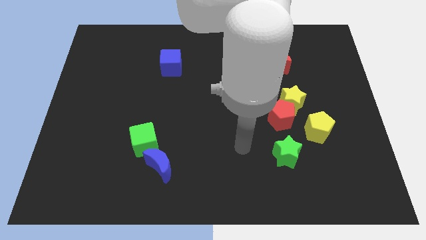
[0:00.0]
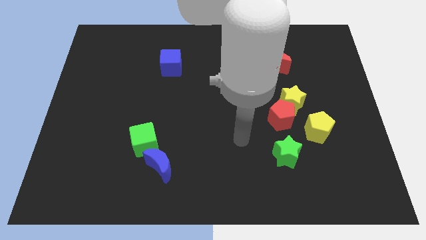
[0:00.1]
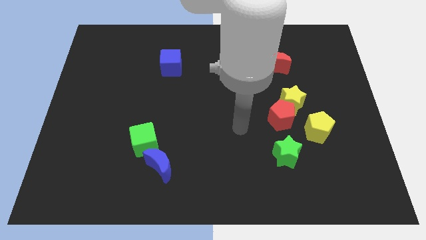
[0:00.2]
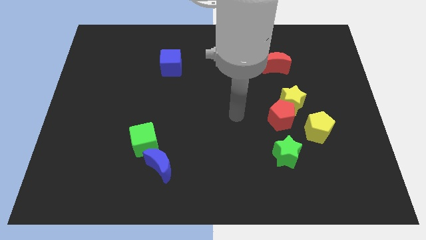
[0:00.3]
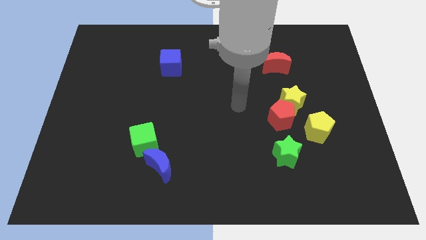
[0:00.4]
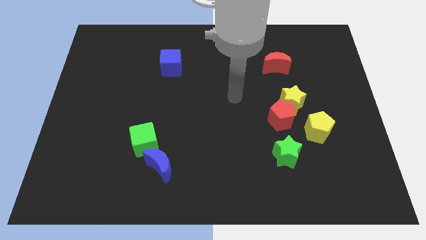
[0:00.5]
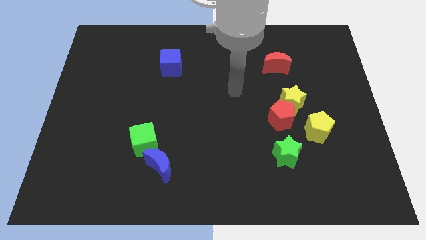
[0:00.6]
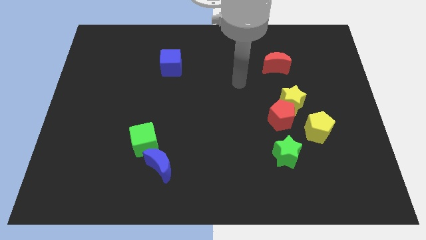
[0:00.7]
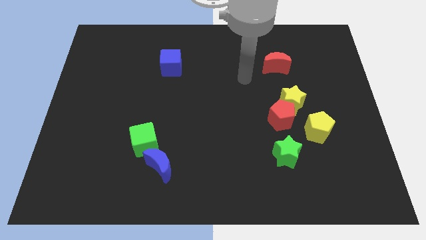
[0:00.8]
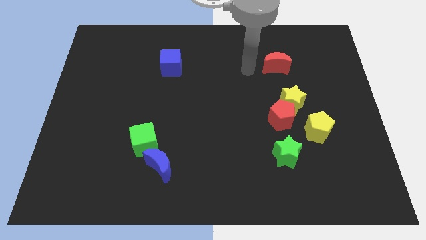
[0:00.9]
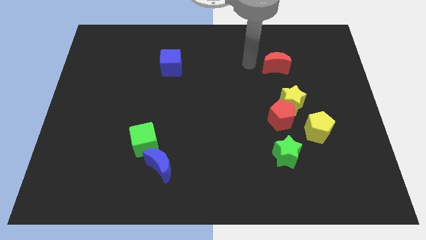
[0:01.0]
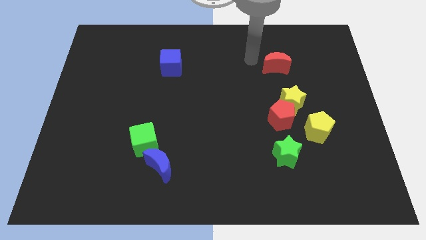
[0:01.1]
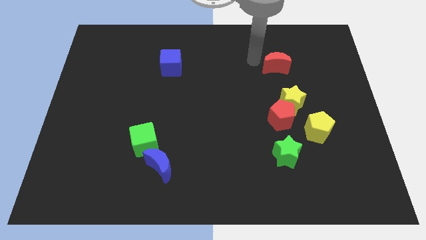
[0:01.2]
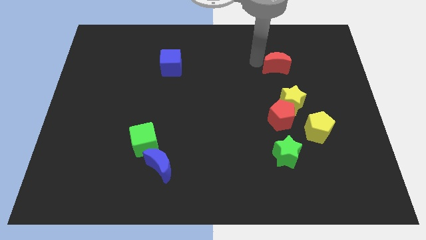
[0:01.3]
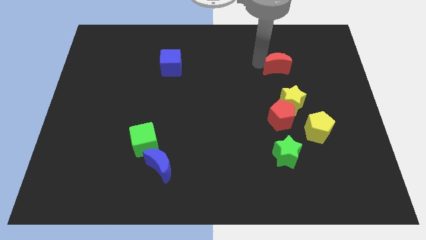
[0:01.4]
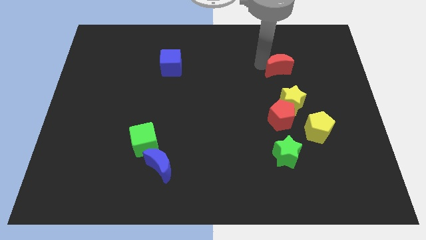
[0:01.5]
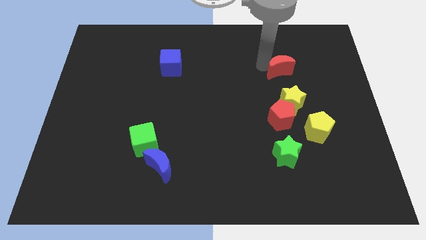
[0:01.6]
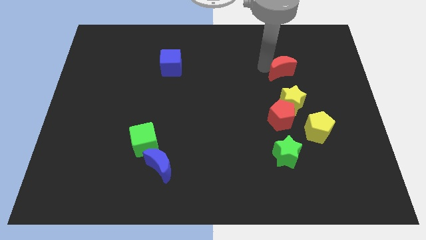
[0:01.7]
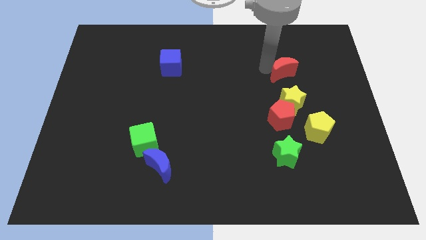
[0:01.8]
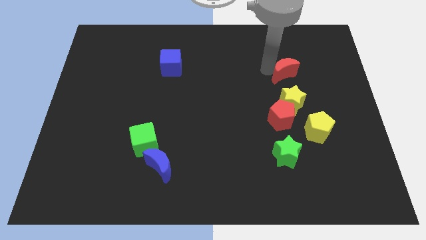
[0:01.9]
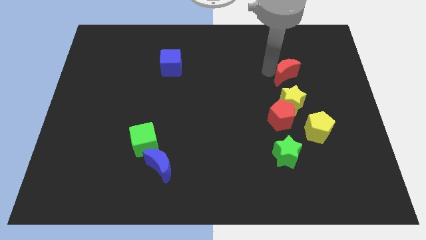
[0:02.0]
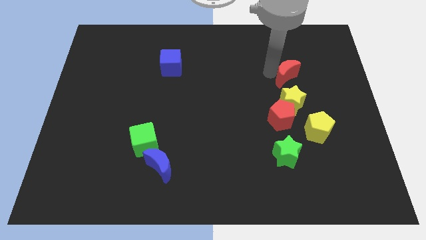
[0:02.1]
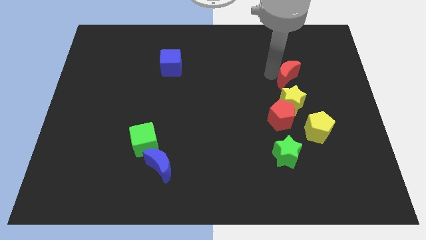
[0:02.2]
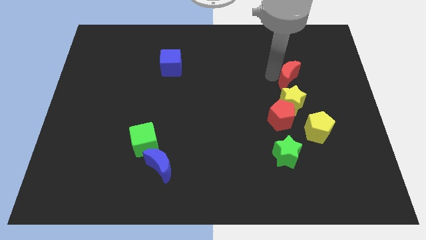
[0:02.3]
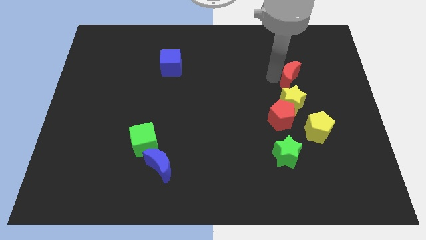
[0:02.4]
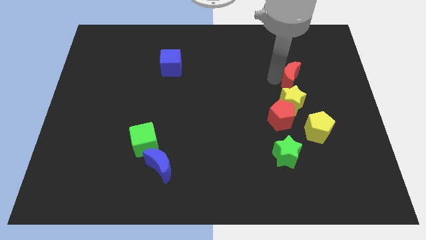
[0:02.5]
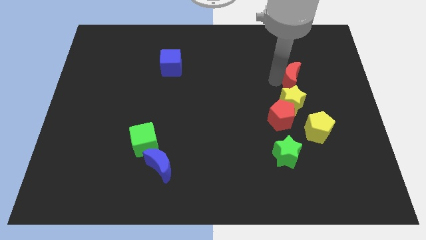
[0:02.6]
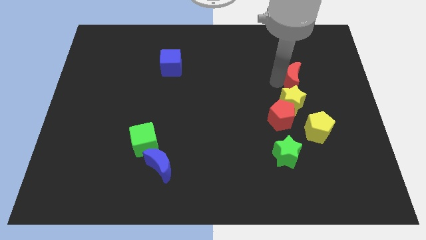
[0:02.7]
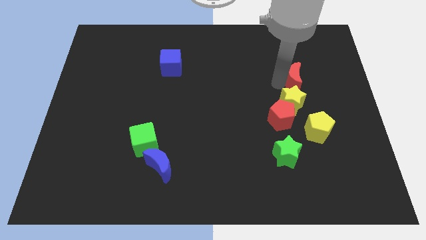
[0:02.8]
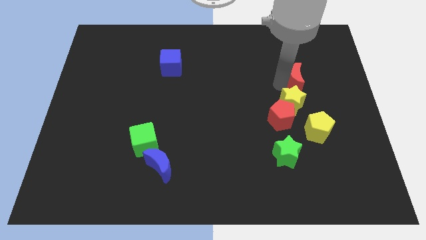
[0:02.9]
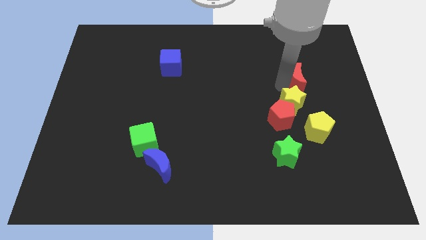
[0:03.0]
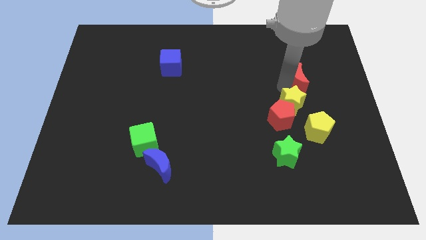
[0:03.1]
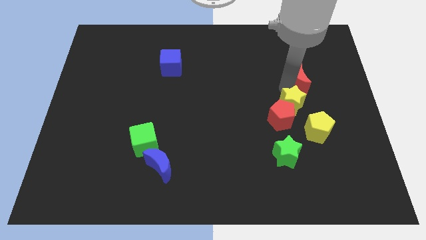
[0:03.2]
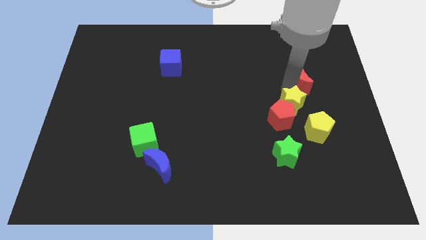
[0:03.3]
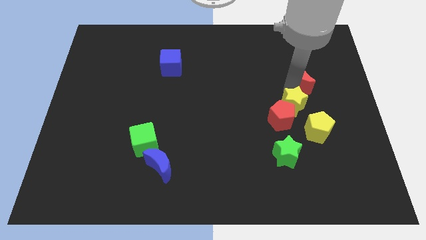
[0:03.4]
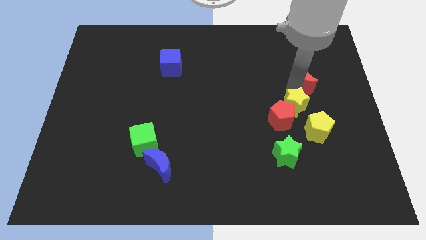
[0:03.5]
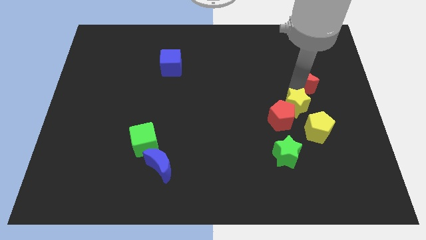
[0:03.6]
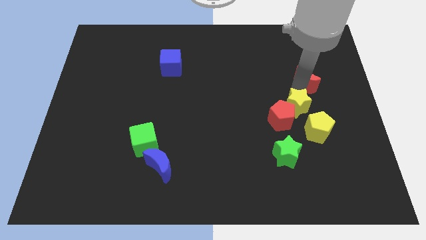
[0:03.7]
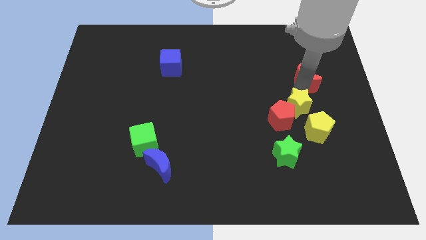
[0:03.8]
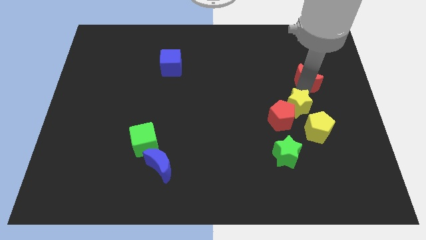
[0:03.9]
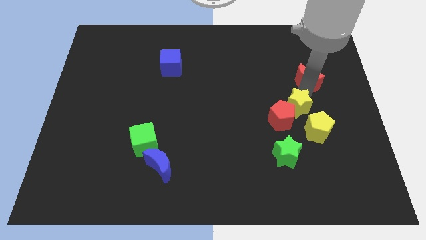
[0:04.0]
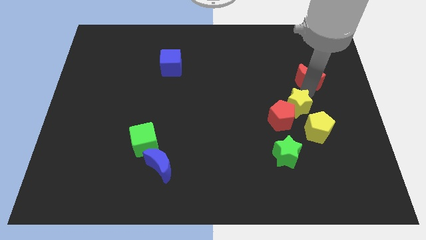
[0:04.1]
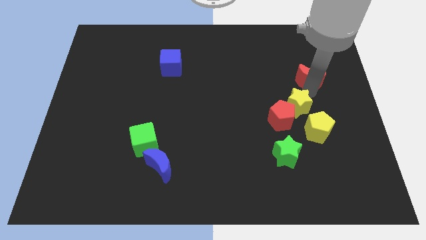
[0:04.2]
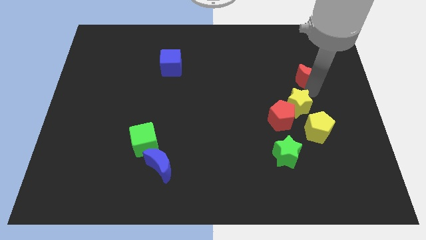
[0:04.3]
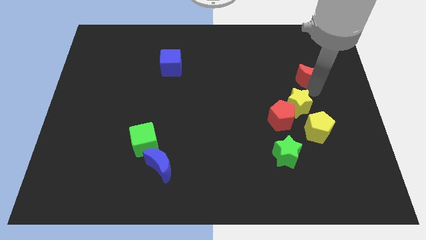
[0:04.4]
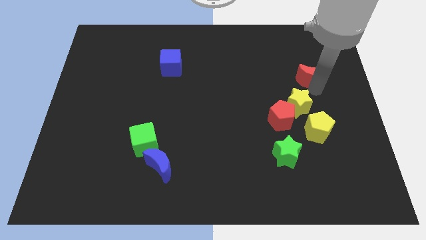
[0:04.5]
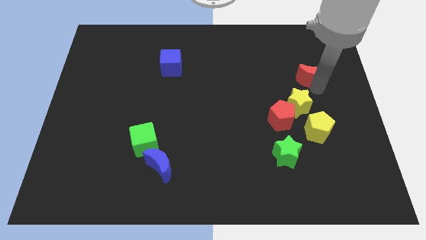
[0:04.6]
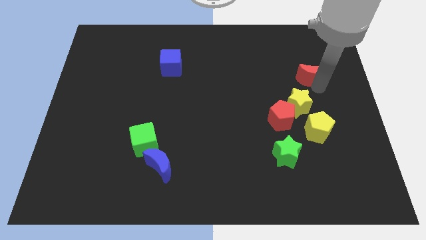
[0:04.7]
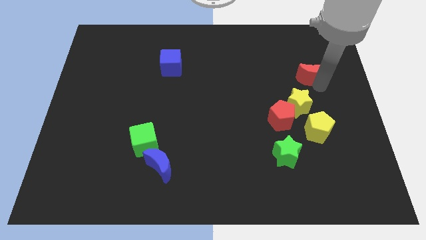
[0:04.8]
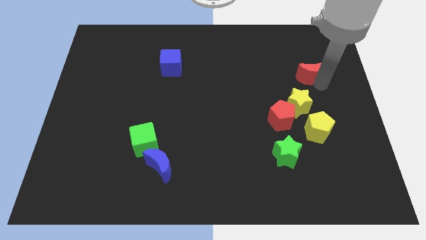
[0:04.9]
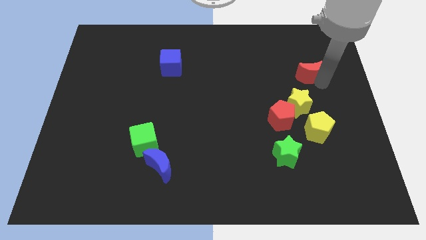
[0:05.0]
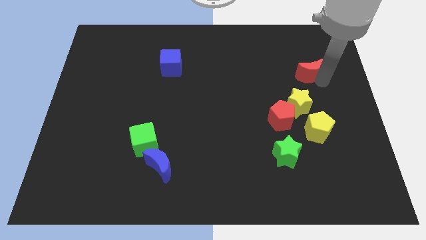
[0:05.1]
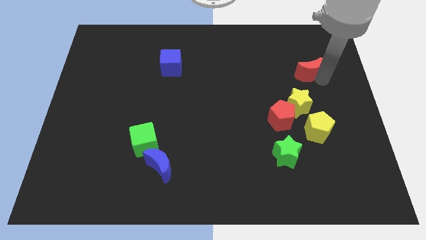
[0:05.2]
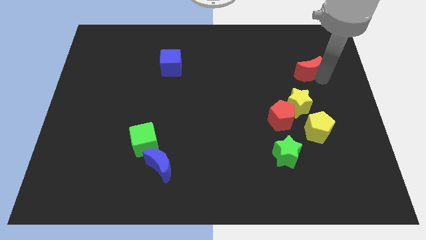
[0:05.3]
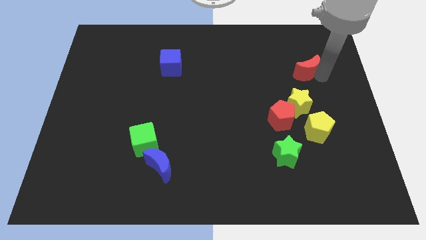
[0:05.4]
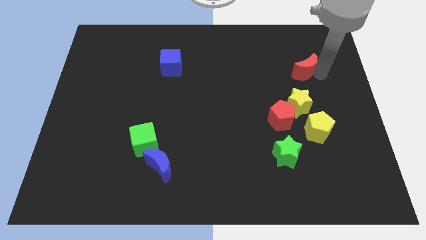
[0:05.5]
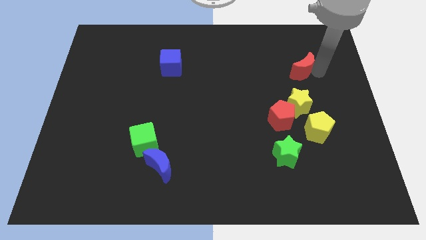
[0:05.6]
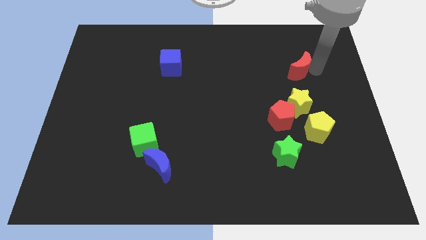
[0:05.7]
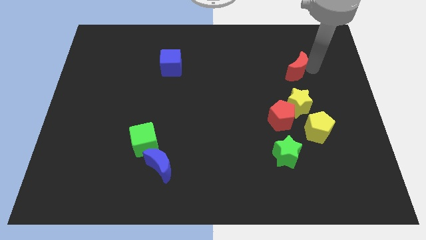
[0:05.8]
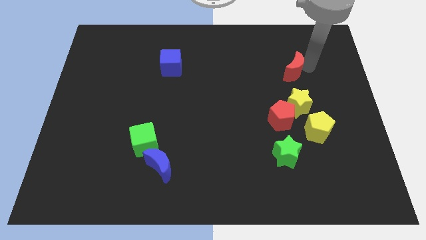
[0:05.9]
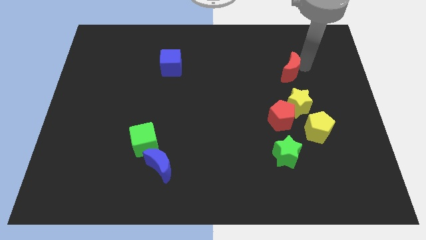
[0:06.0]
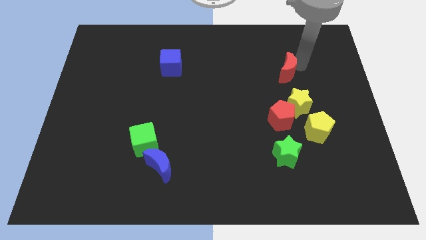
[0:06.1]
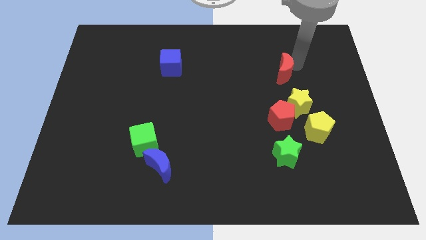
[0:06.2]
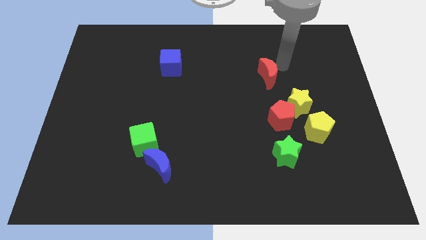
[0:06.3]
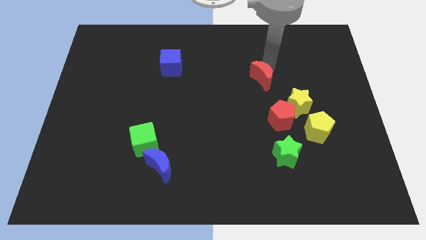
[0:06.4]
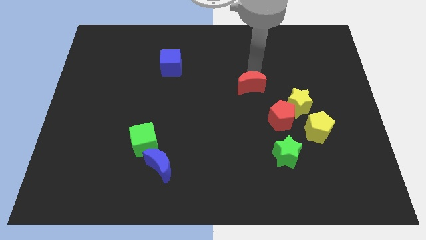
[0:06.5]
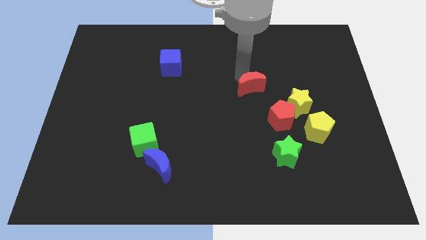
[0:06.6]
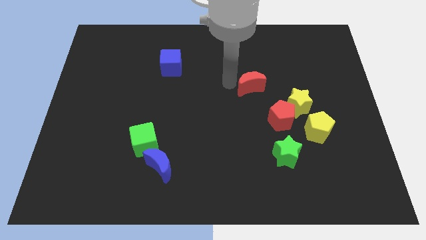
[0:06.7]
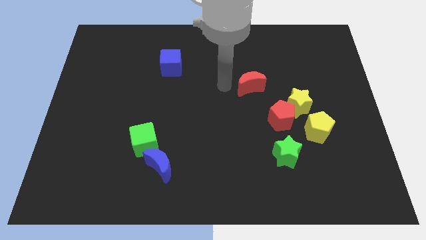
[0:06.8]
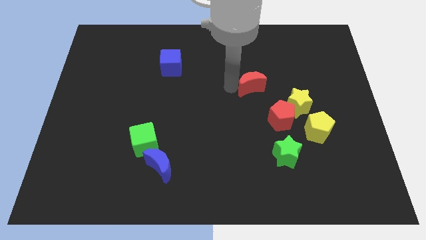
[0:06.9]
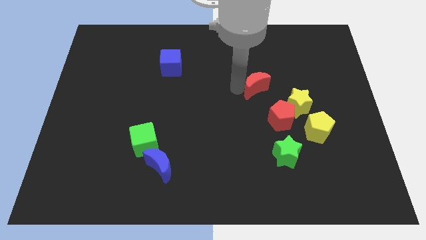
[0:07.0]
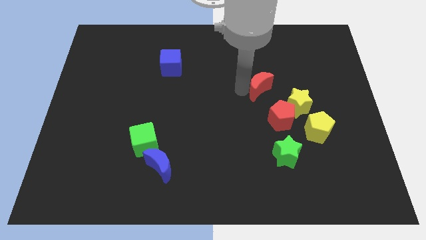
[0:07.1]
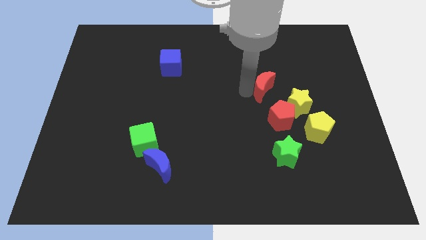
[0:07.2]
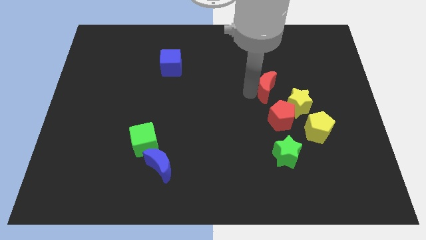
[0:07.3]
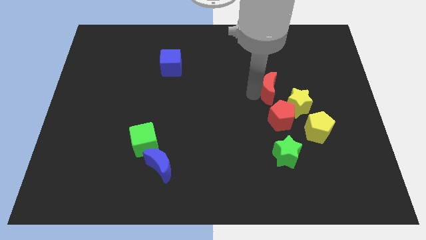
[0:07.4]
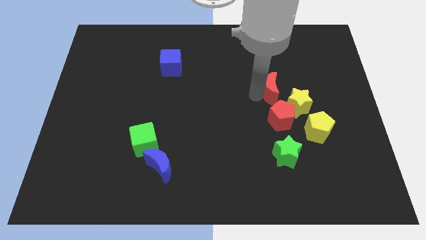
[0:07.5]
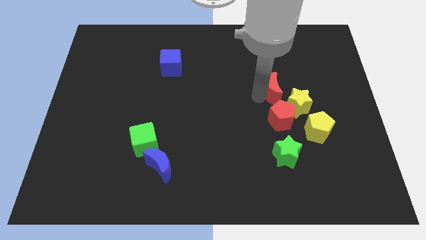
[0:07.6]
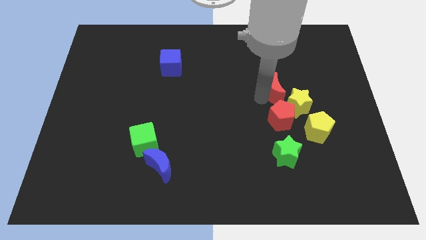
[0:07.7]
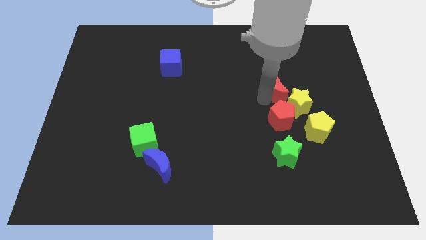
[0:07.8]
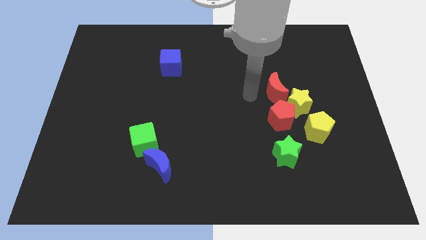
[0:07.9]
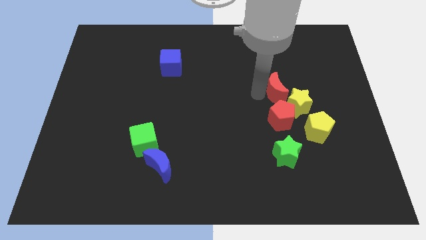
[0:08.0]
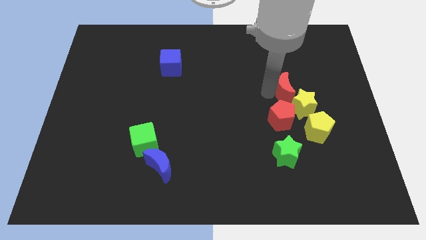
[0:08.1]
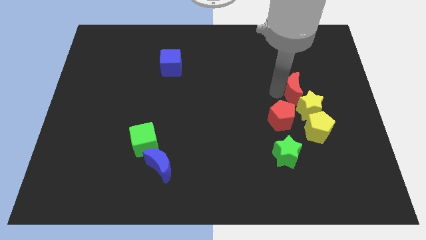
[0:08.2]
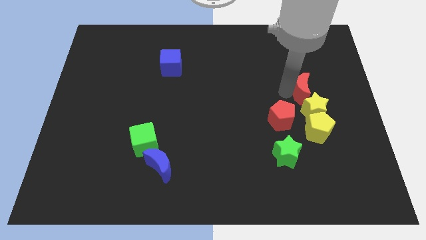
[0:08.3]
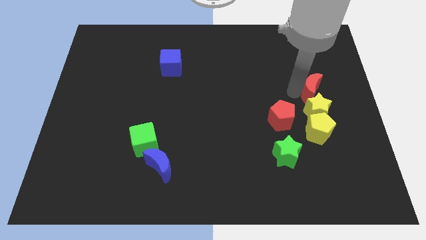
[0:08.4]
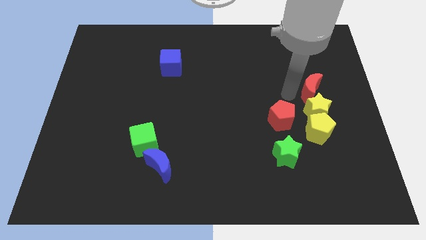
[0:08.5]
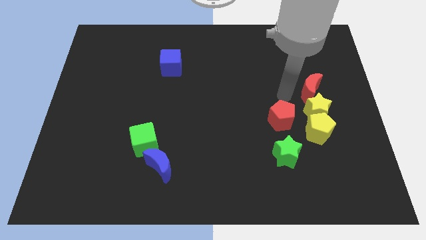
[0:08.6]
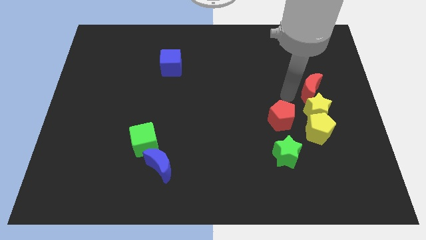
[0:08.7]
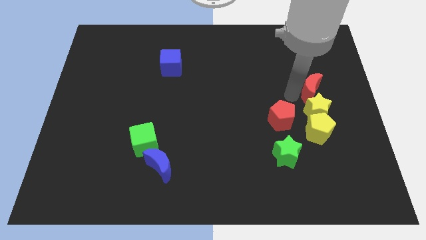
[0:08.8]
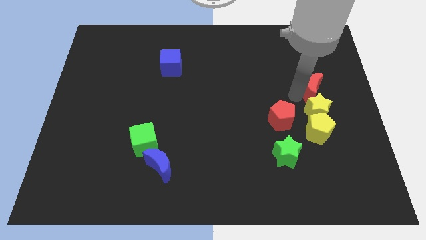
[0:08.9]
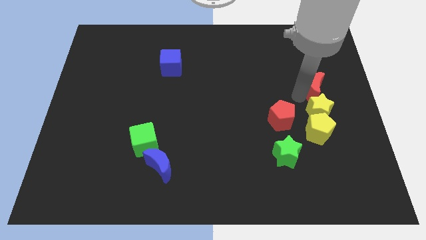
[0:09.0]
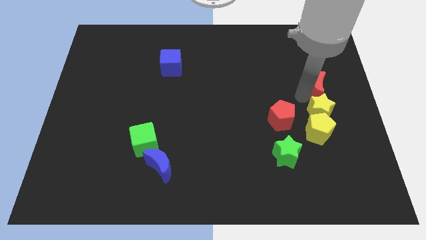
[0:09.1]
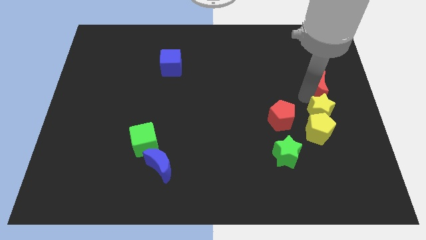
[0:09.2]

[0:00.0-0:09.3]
move the red moon to the center right
